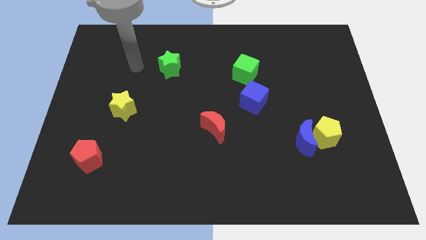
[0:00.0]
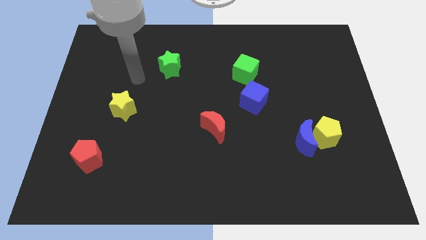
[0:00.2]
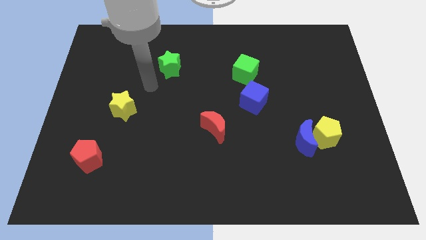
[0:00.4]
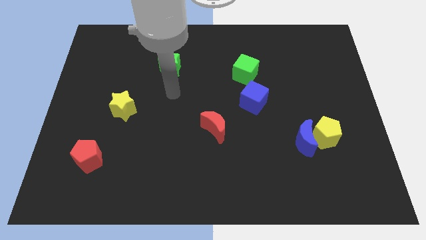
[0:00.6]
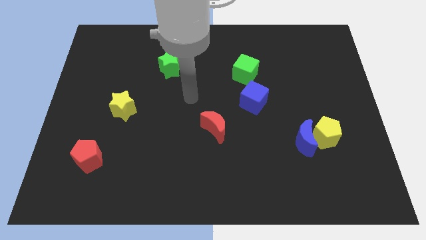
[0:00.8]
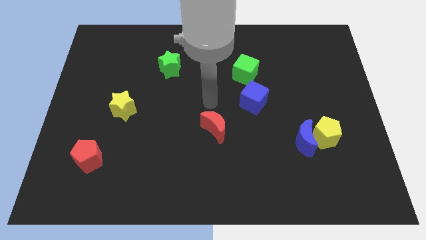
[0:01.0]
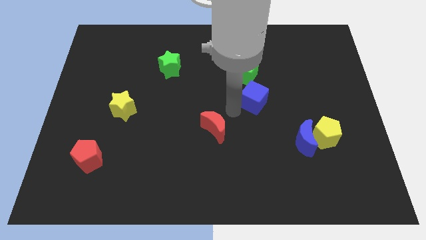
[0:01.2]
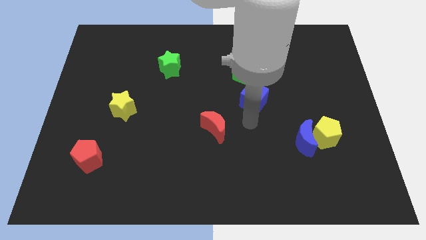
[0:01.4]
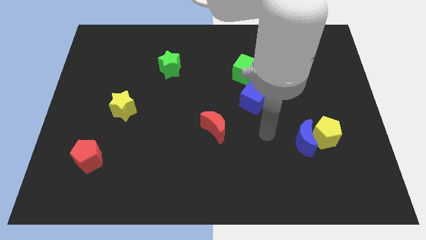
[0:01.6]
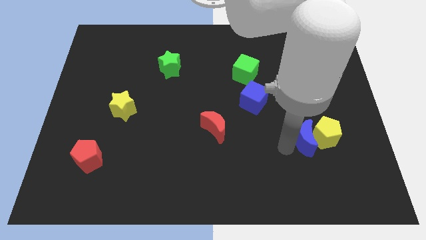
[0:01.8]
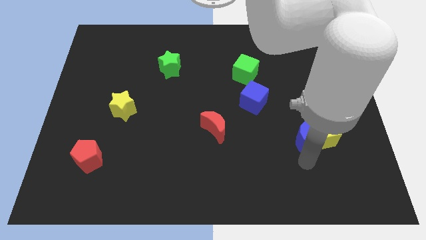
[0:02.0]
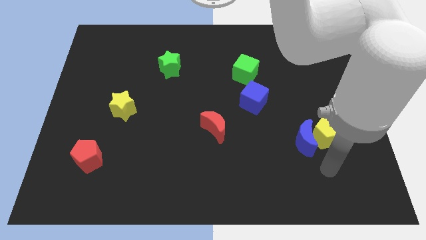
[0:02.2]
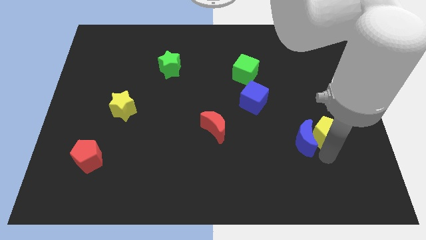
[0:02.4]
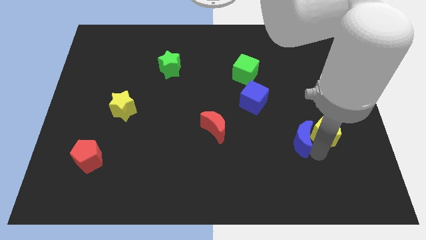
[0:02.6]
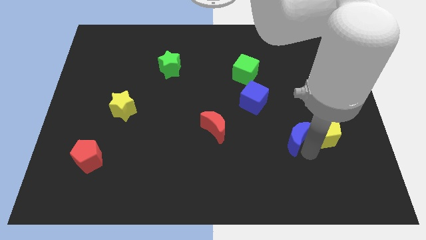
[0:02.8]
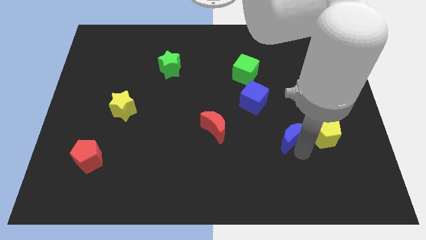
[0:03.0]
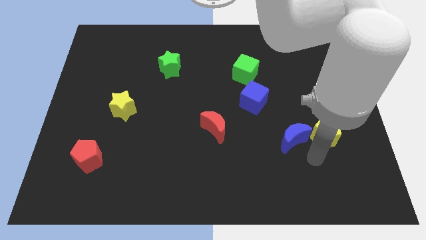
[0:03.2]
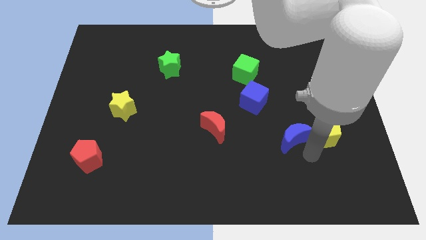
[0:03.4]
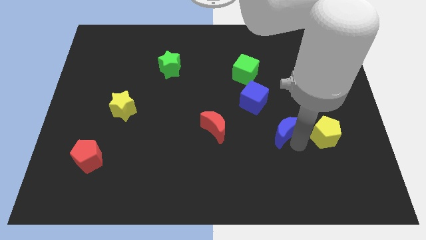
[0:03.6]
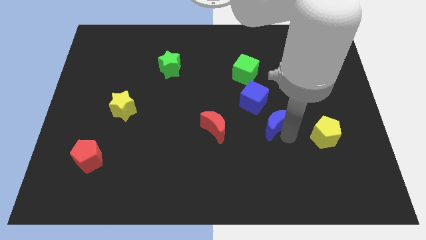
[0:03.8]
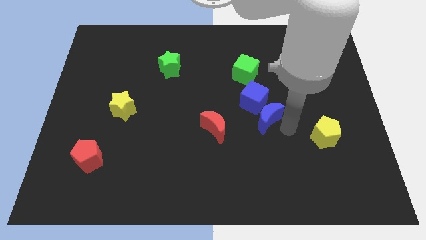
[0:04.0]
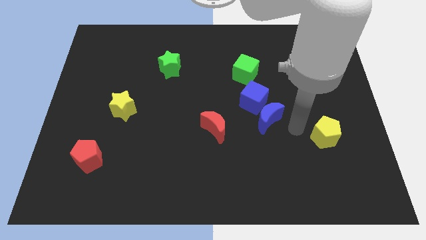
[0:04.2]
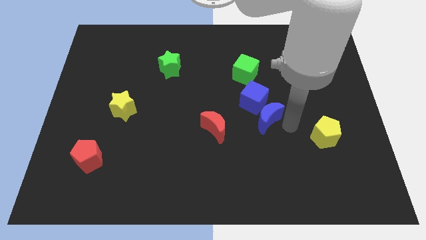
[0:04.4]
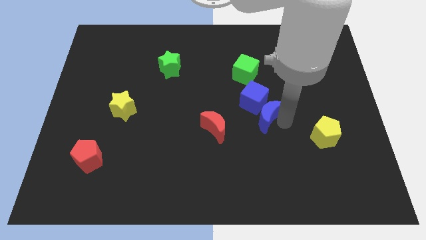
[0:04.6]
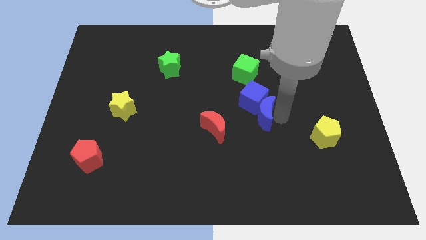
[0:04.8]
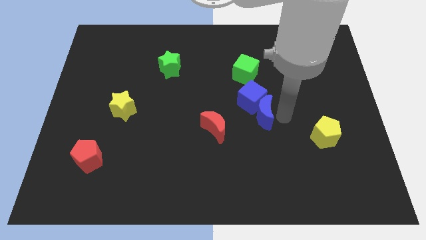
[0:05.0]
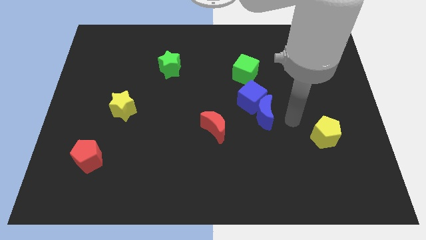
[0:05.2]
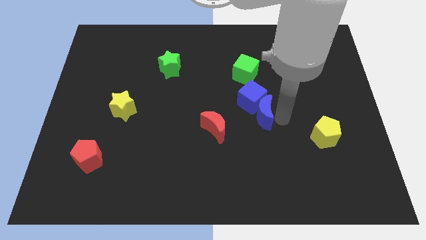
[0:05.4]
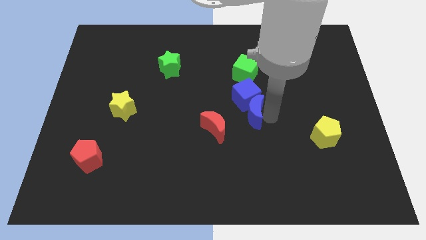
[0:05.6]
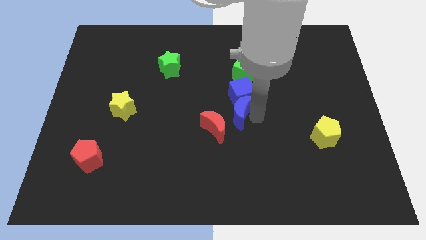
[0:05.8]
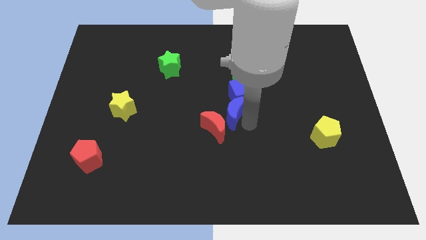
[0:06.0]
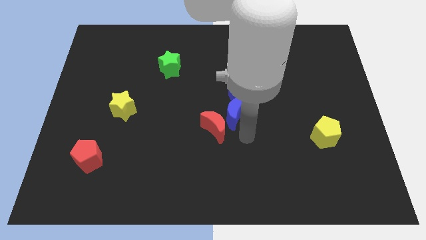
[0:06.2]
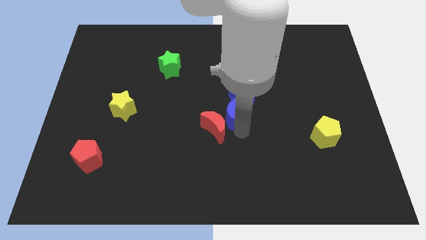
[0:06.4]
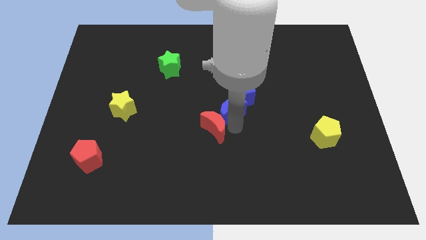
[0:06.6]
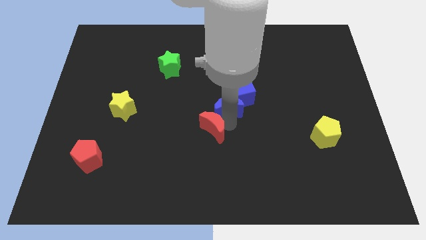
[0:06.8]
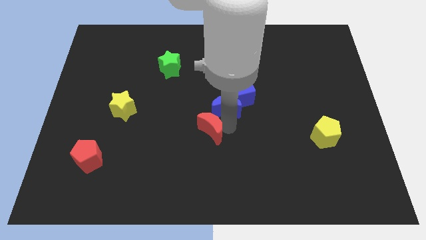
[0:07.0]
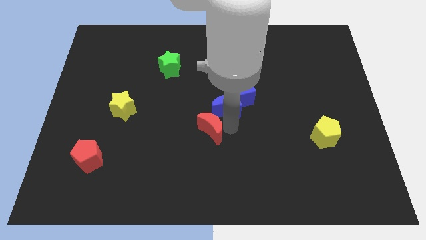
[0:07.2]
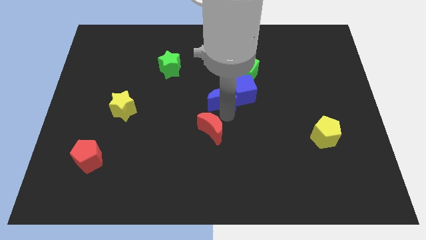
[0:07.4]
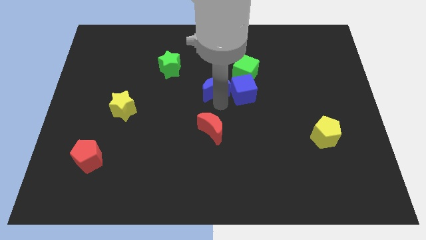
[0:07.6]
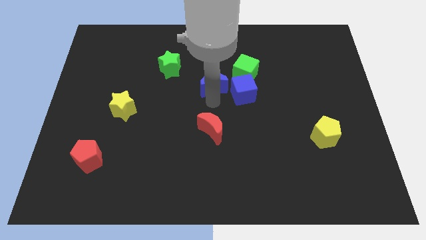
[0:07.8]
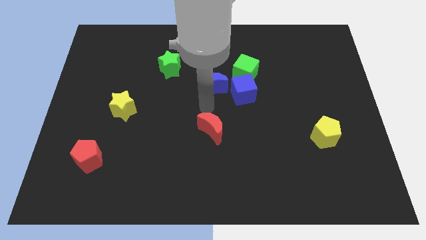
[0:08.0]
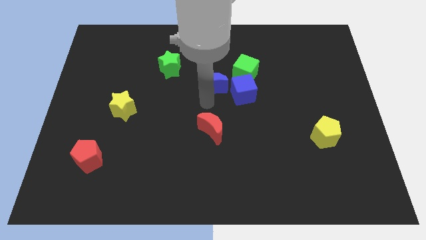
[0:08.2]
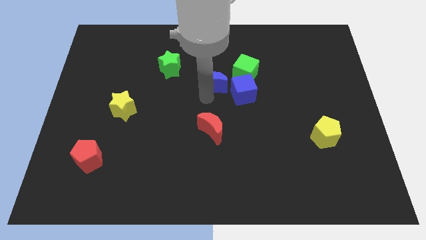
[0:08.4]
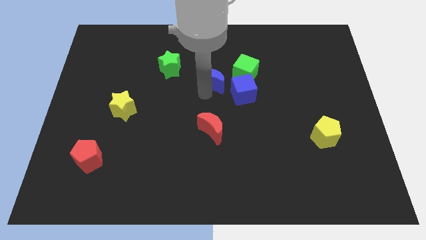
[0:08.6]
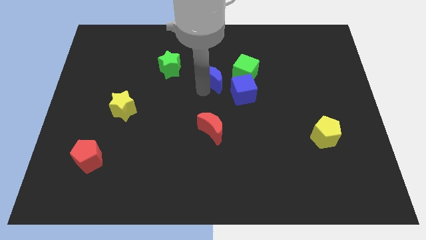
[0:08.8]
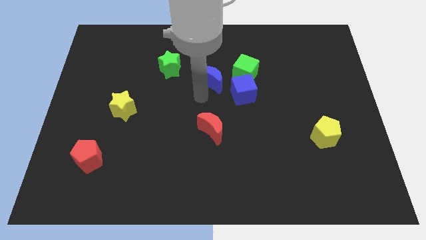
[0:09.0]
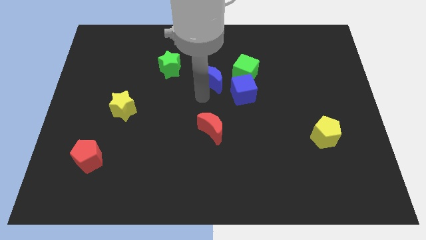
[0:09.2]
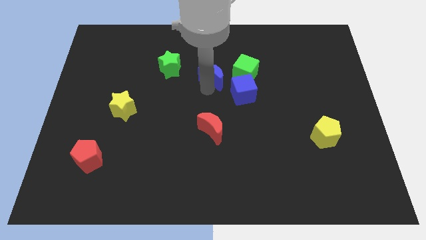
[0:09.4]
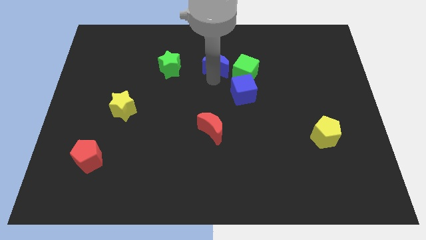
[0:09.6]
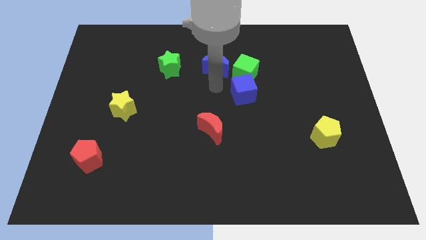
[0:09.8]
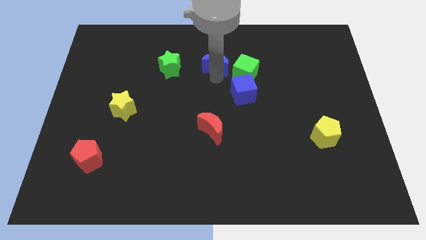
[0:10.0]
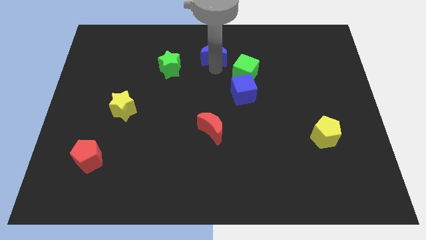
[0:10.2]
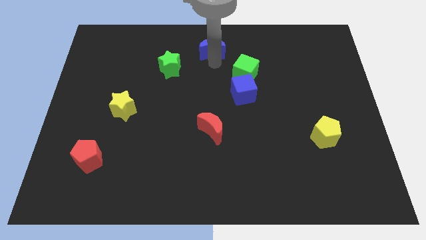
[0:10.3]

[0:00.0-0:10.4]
move the blue moon to the top side

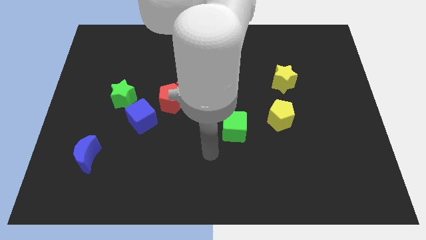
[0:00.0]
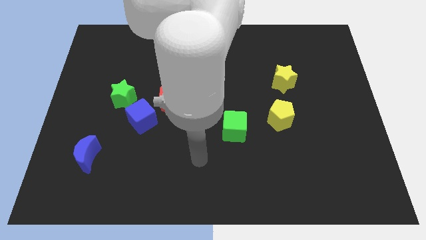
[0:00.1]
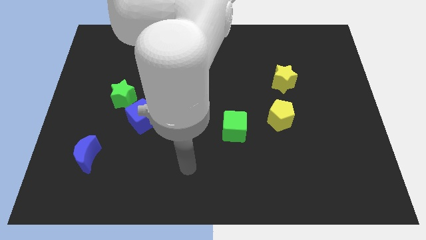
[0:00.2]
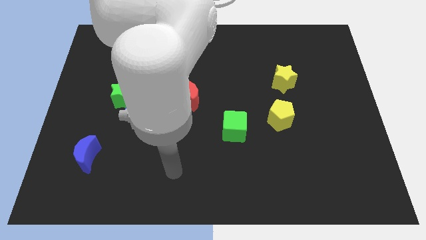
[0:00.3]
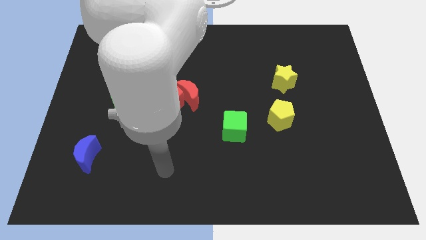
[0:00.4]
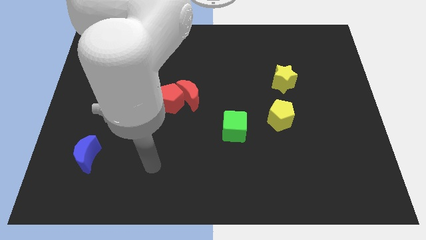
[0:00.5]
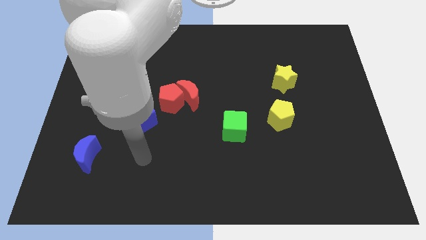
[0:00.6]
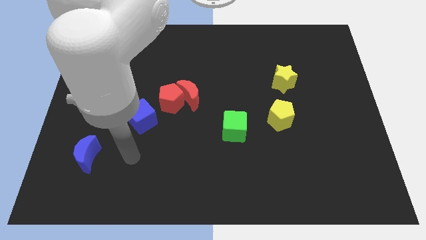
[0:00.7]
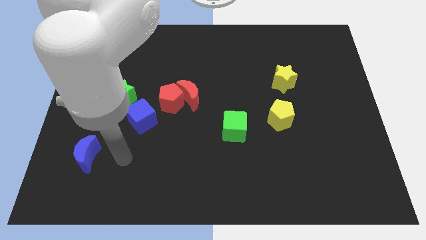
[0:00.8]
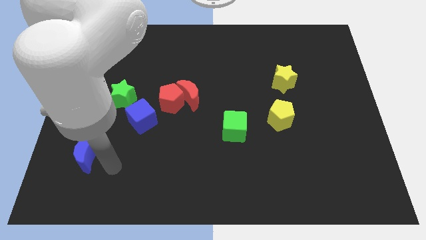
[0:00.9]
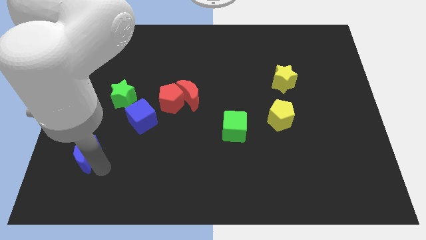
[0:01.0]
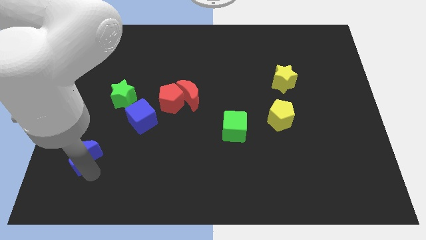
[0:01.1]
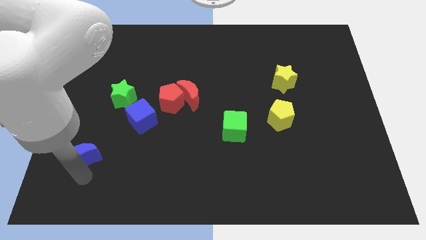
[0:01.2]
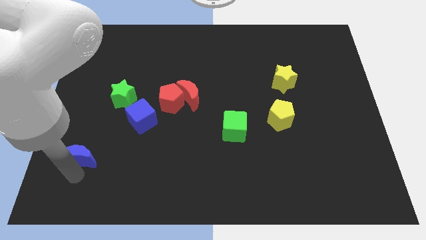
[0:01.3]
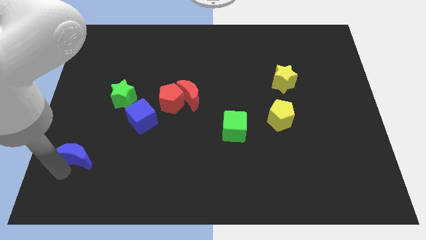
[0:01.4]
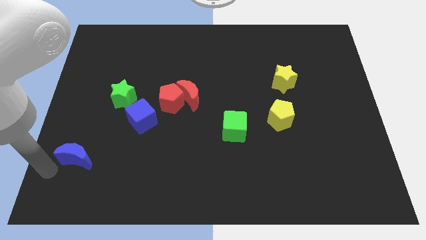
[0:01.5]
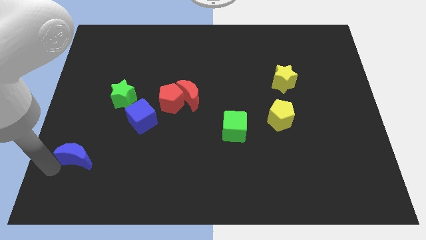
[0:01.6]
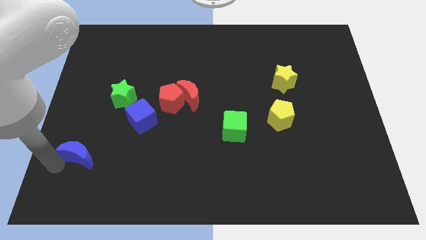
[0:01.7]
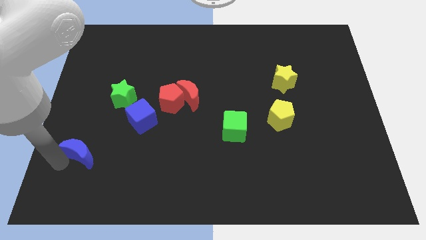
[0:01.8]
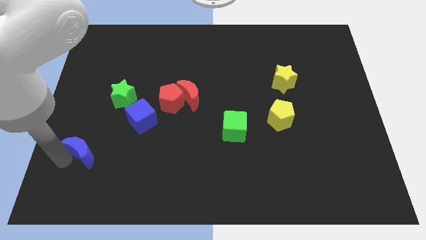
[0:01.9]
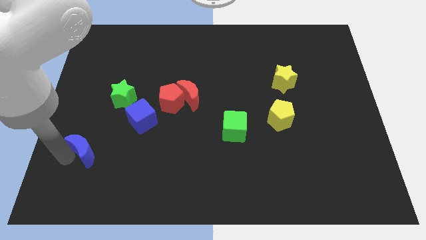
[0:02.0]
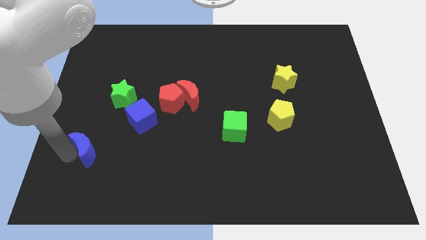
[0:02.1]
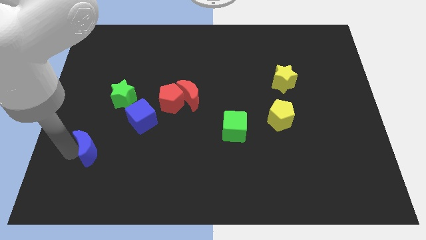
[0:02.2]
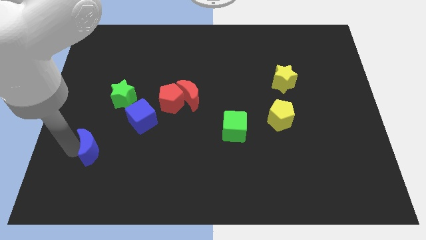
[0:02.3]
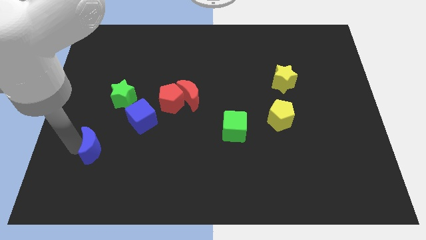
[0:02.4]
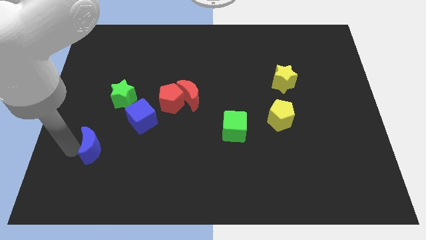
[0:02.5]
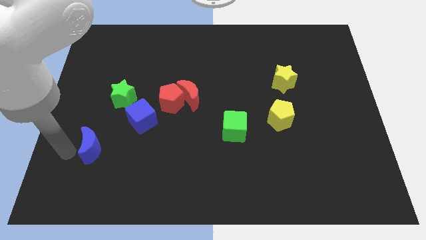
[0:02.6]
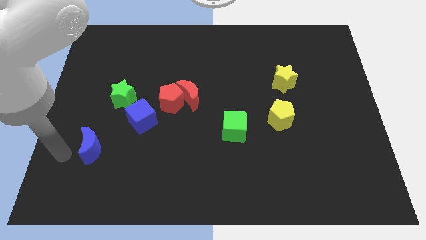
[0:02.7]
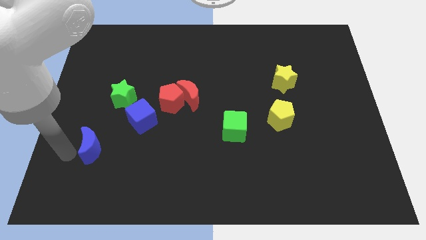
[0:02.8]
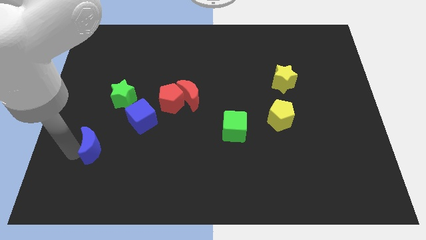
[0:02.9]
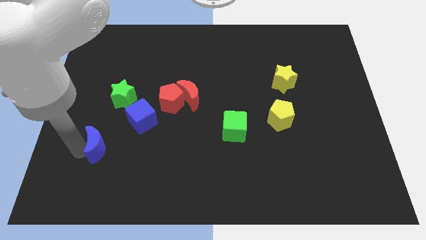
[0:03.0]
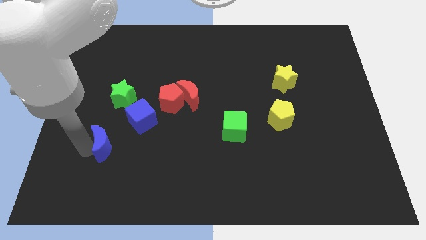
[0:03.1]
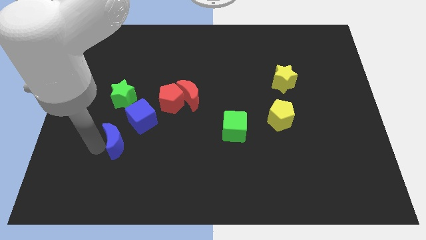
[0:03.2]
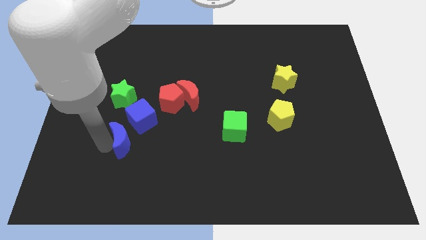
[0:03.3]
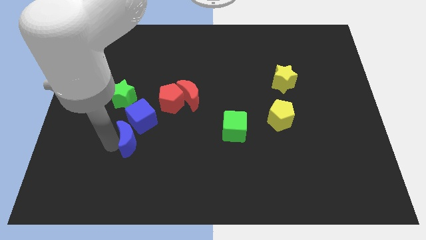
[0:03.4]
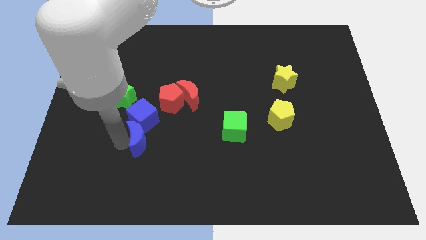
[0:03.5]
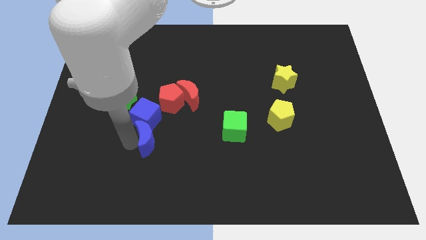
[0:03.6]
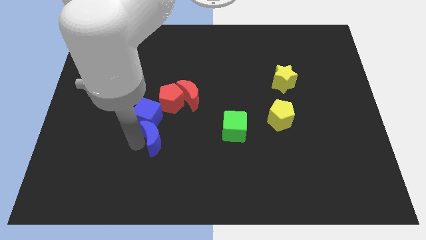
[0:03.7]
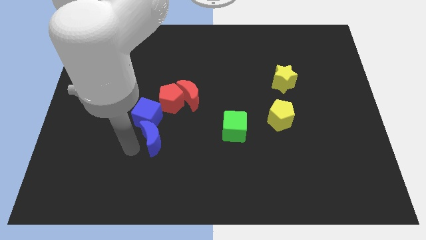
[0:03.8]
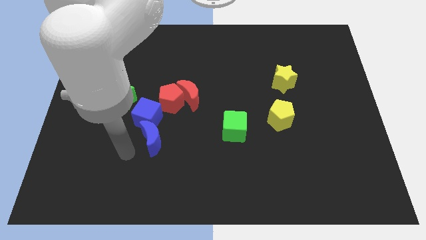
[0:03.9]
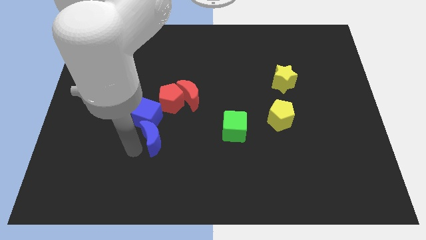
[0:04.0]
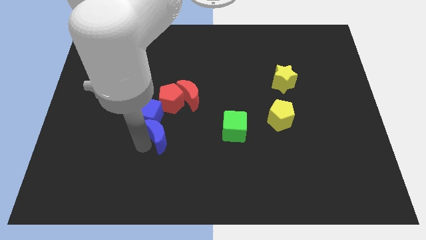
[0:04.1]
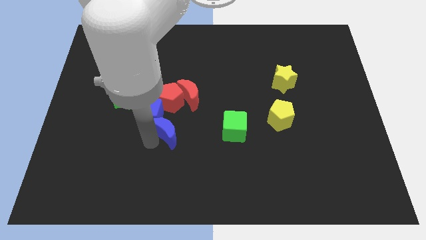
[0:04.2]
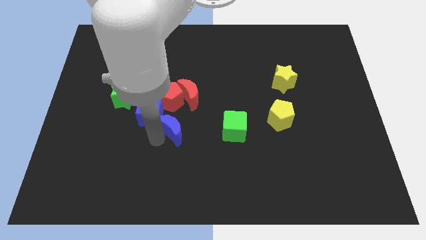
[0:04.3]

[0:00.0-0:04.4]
move the blue moon to the middle of the board
